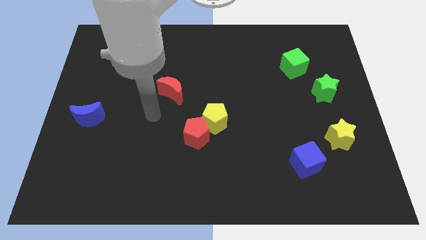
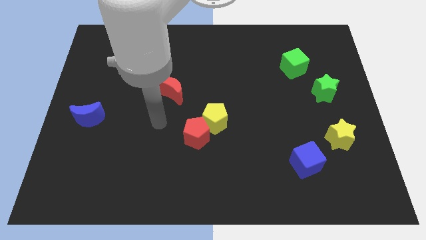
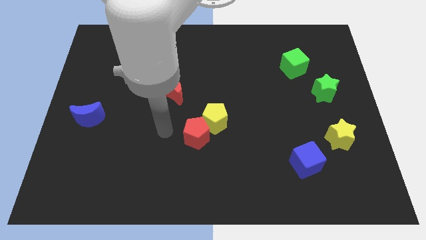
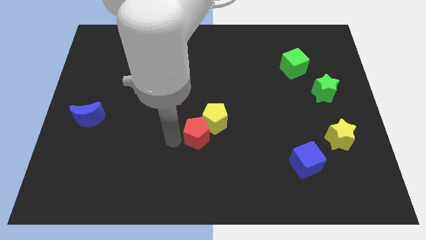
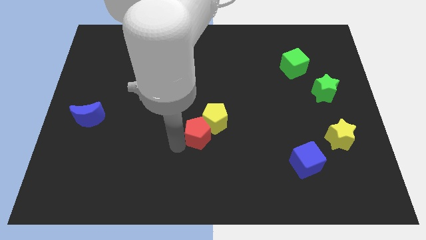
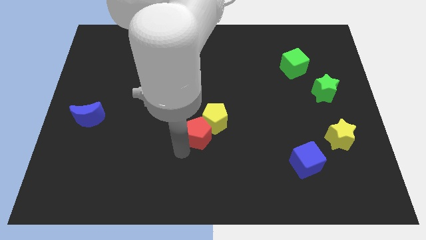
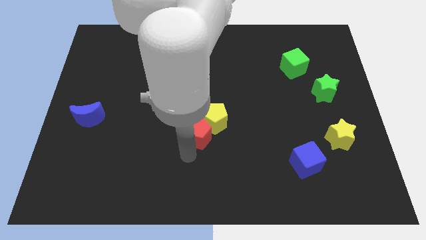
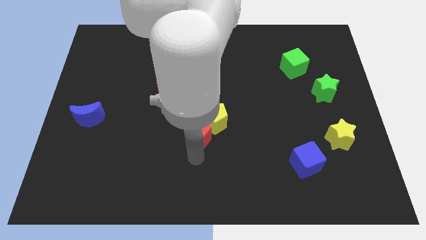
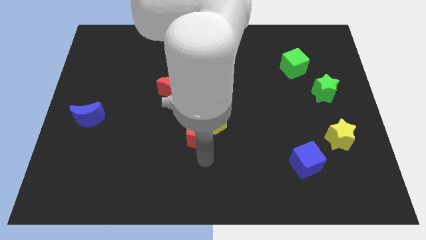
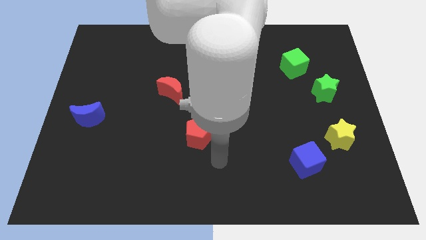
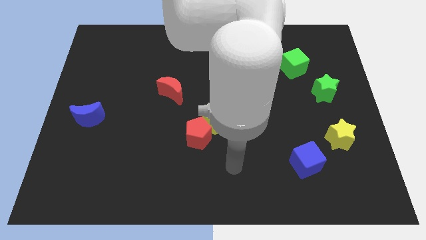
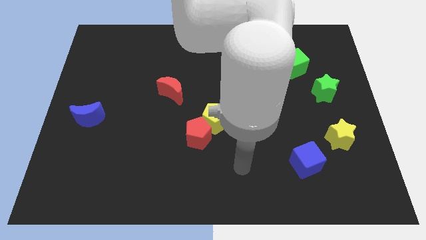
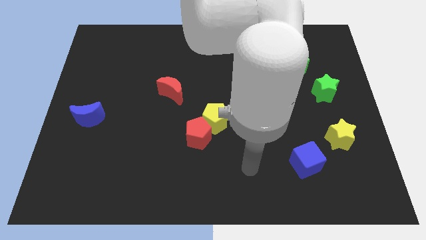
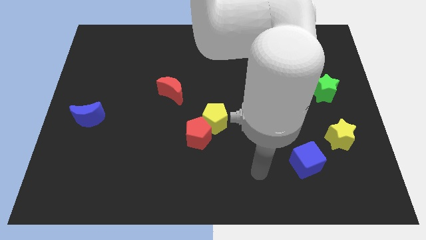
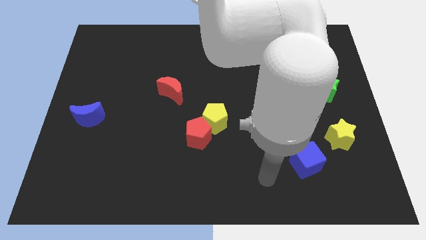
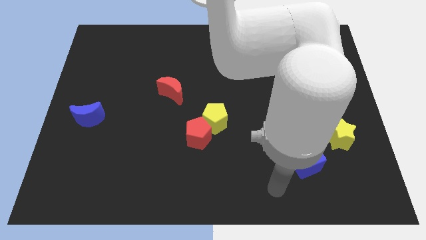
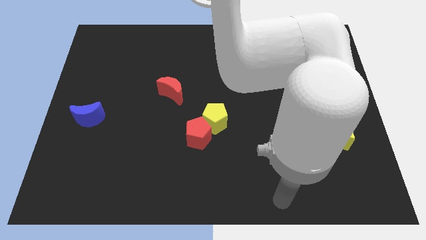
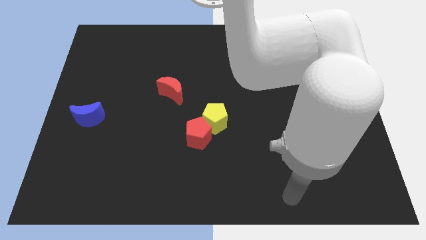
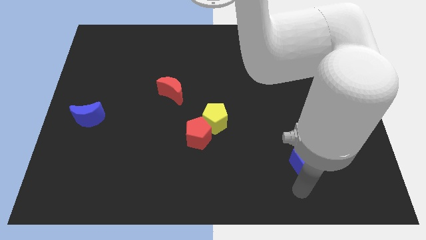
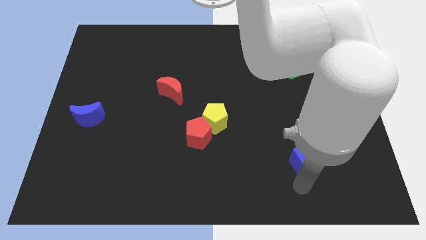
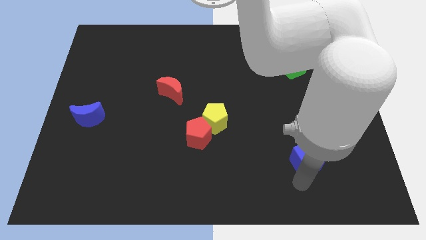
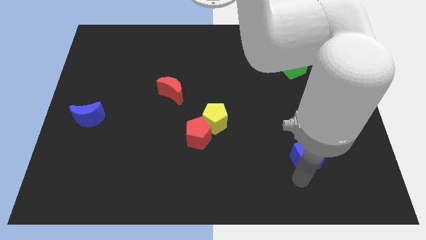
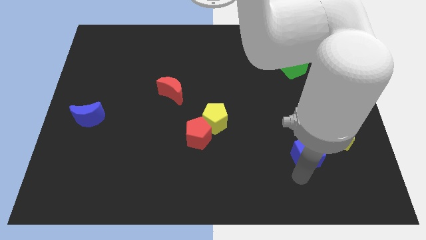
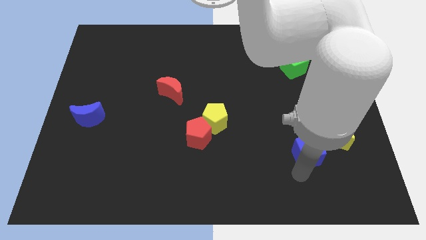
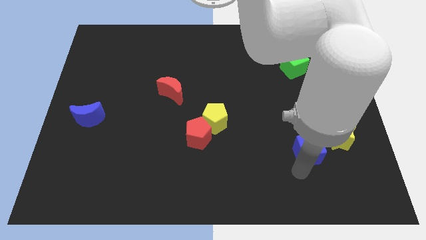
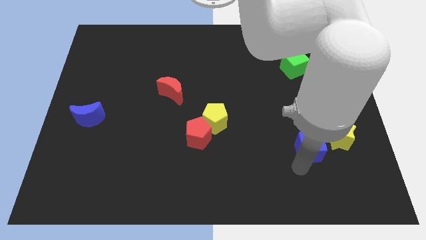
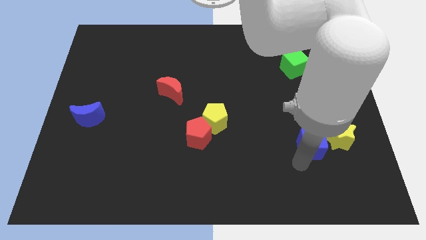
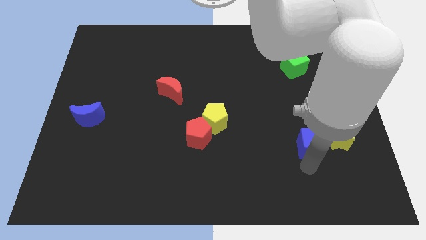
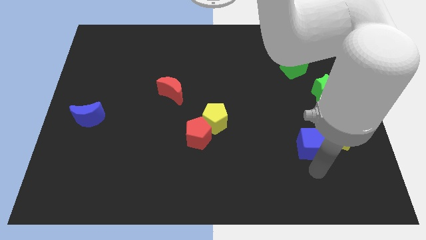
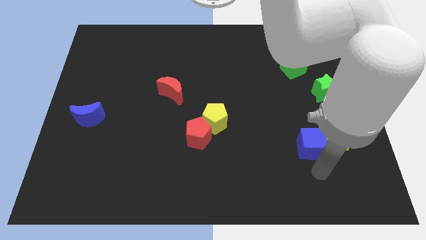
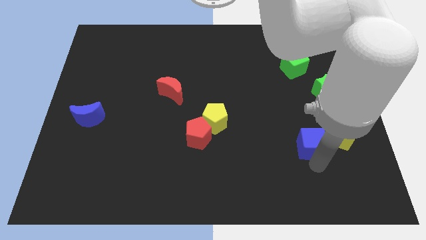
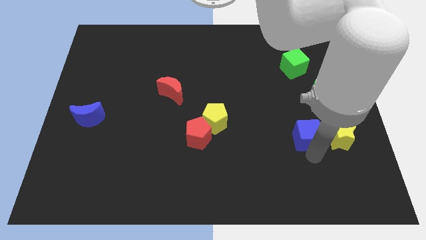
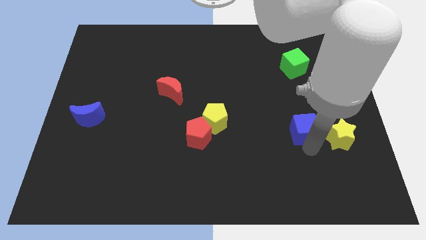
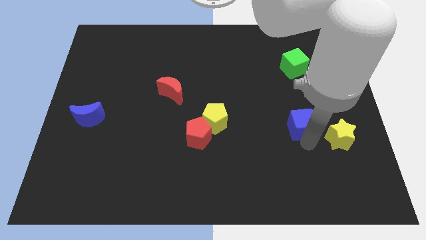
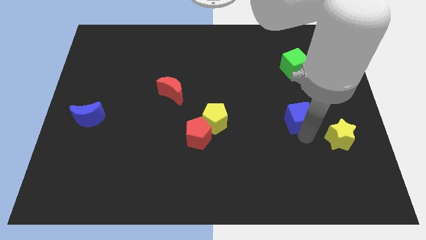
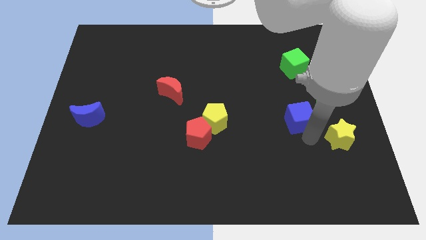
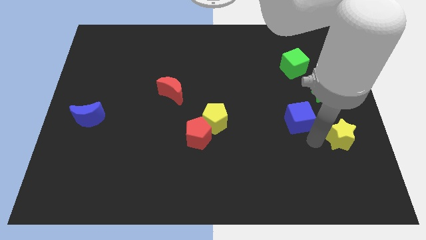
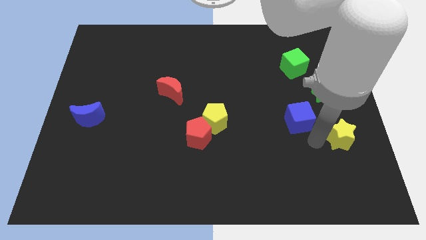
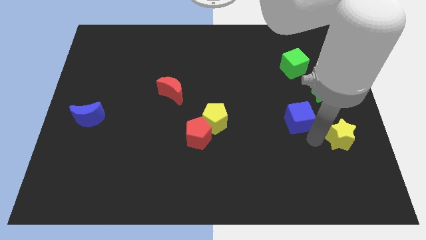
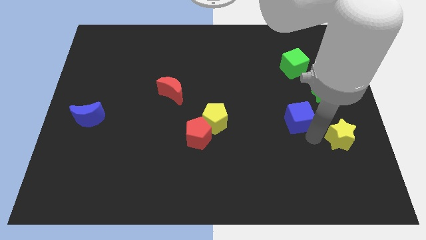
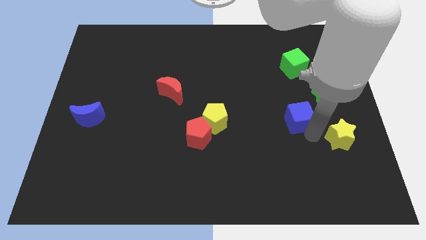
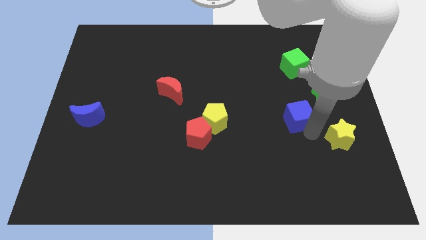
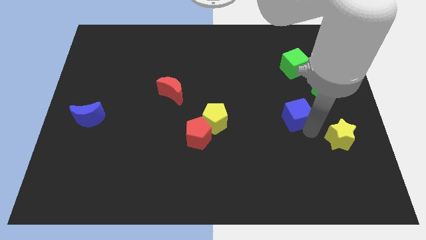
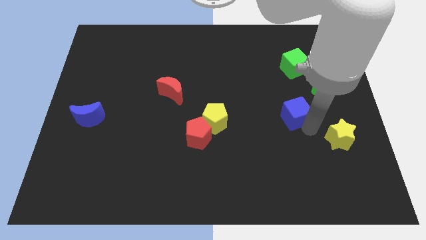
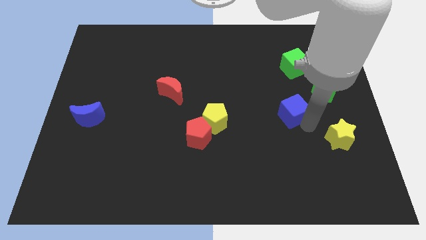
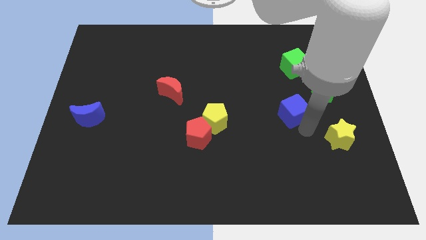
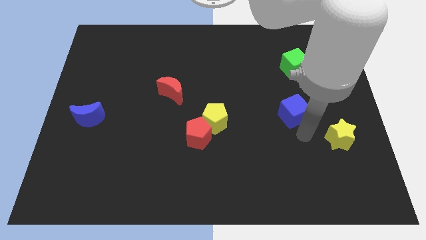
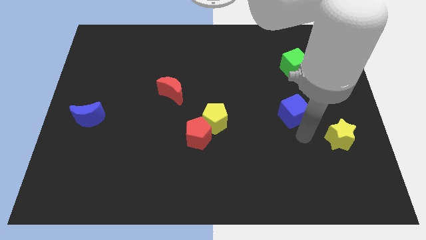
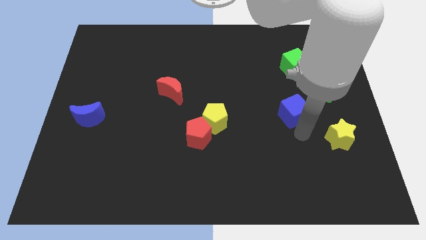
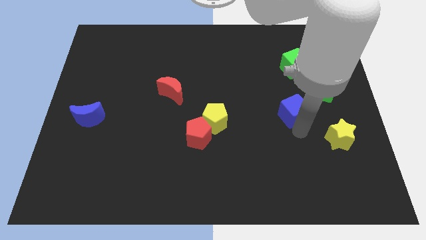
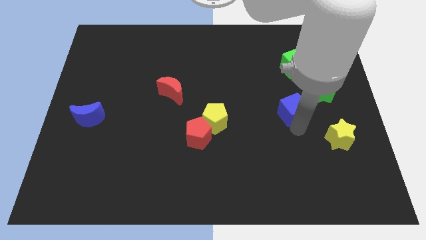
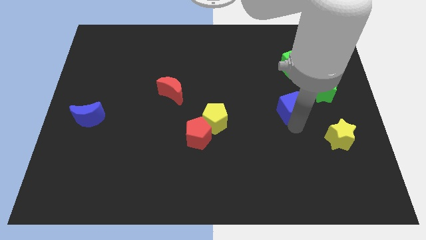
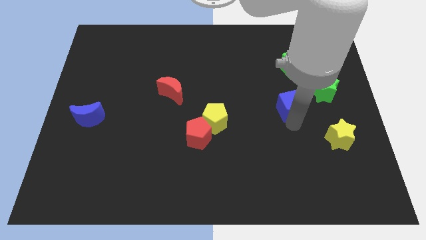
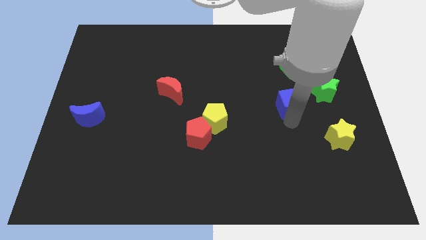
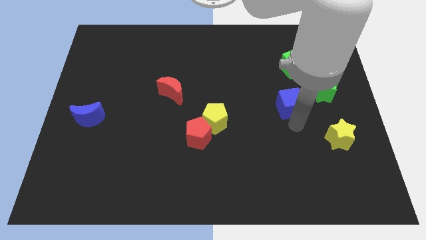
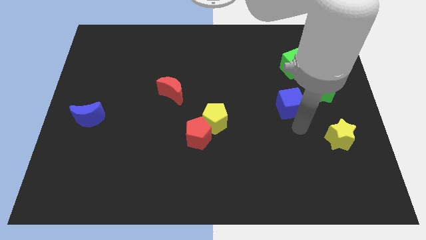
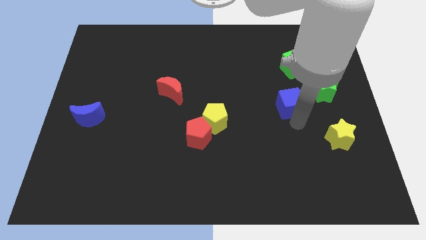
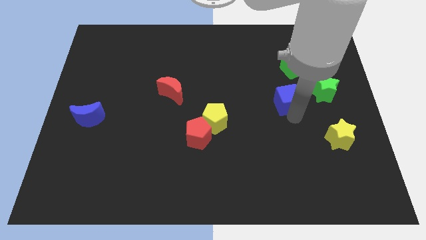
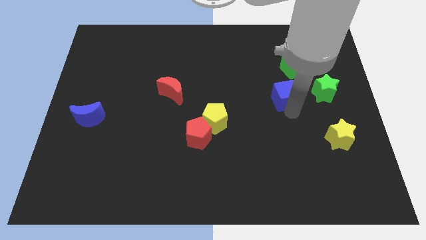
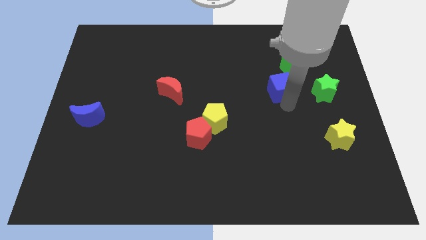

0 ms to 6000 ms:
slide the blue cube upwards

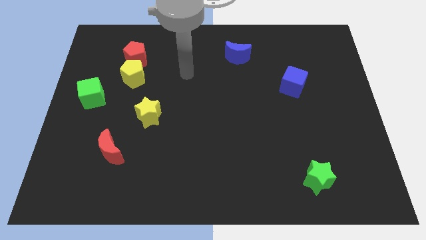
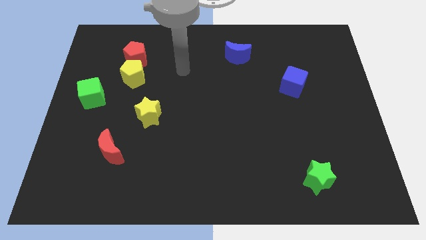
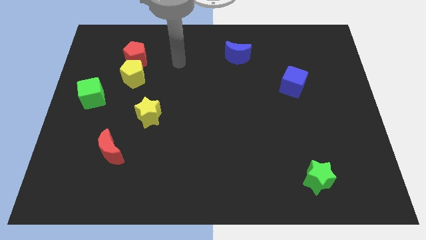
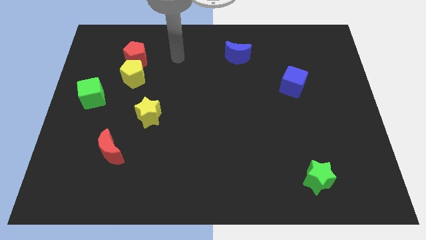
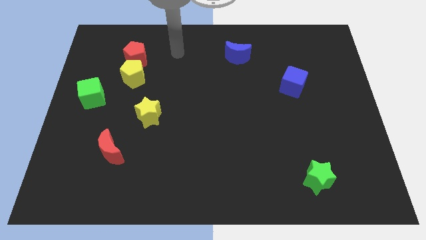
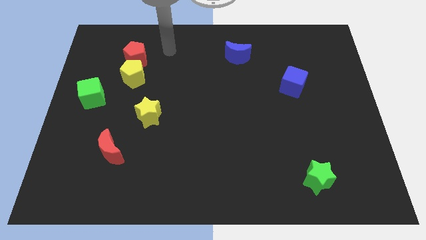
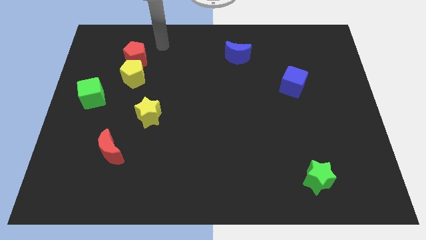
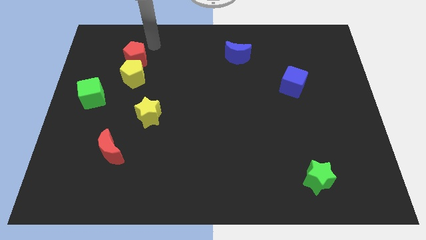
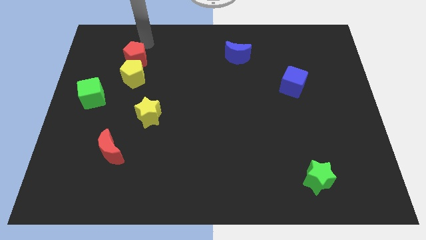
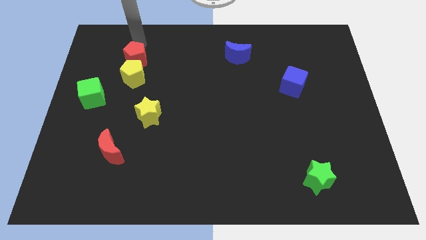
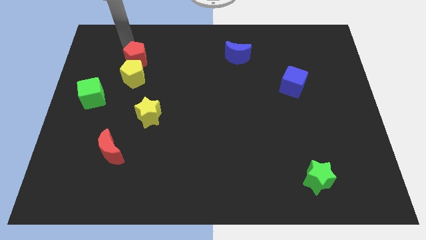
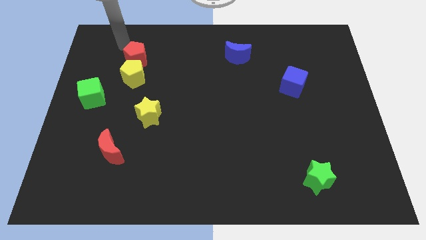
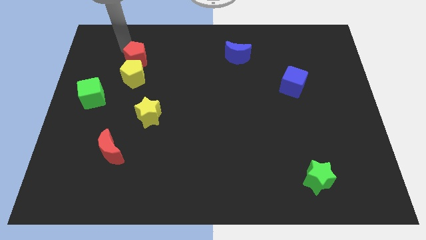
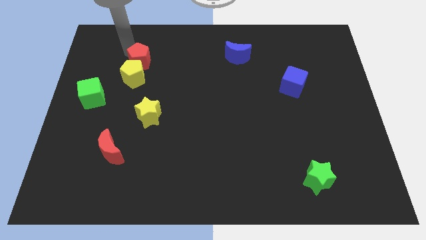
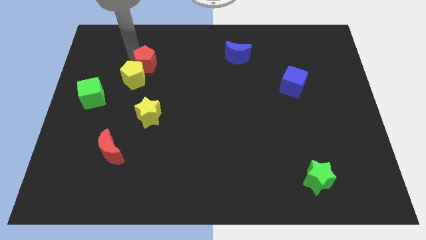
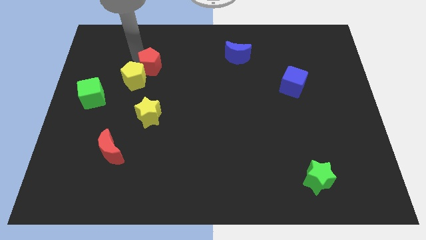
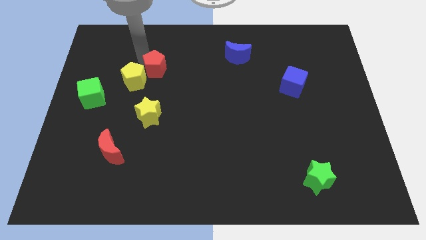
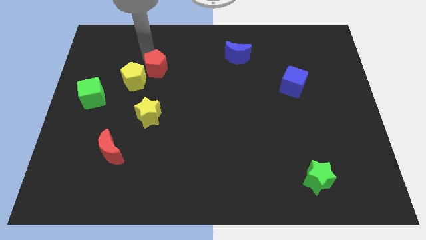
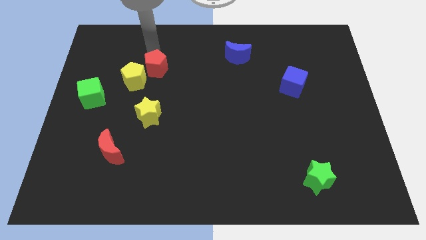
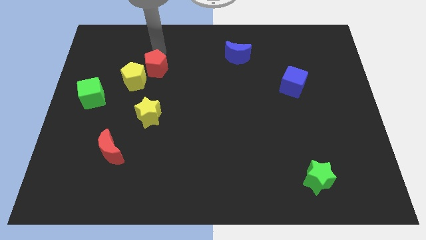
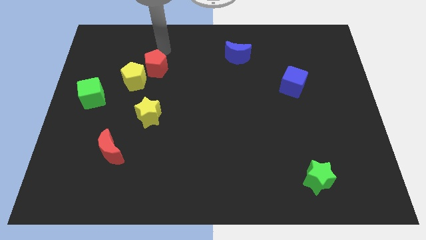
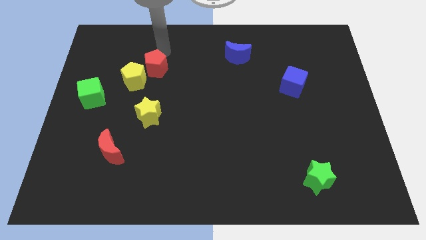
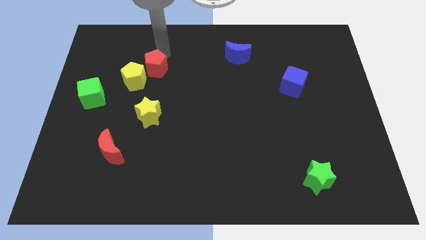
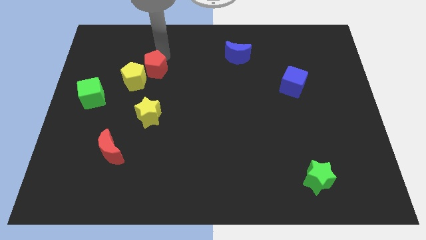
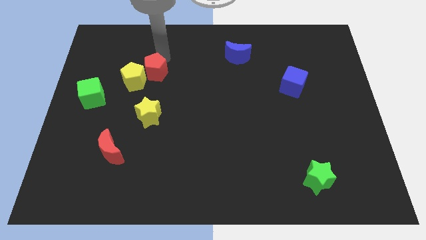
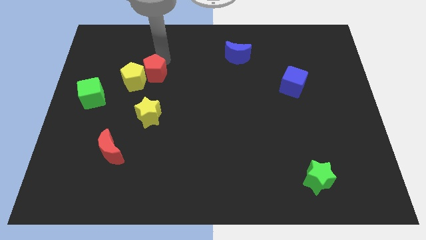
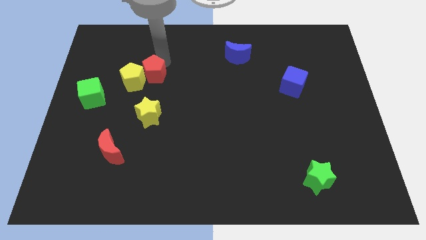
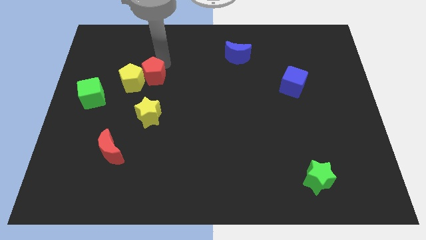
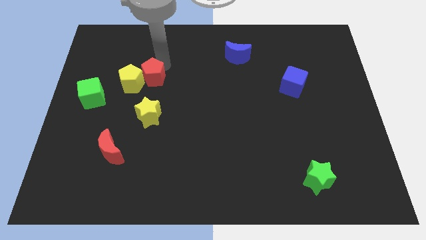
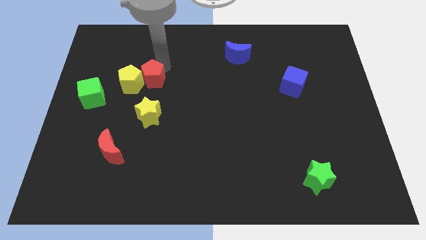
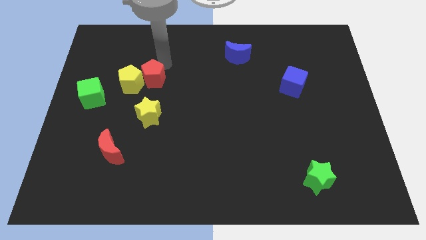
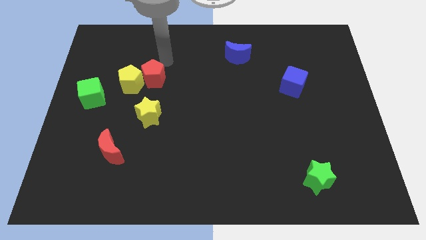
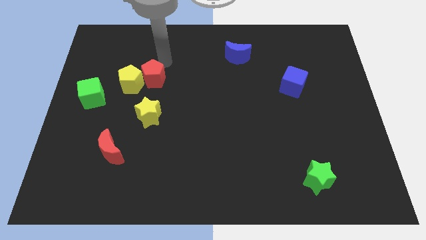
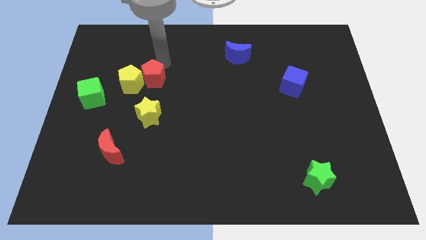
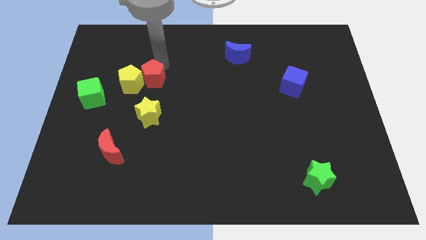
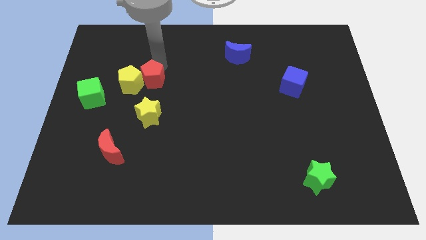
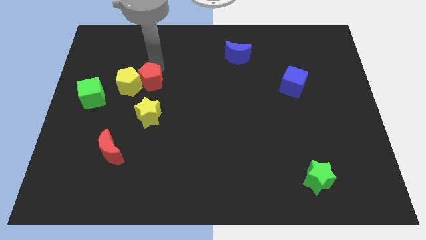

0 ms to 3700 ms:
move the red pentagon somewhat down
